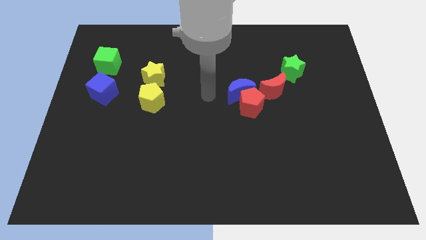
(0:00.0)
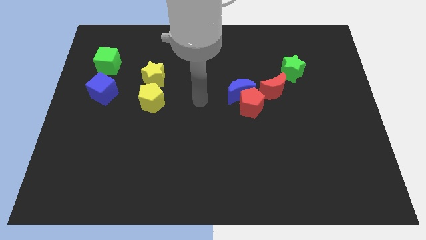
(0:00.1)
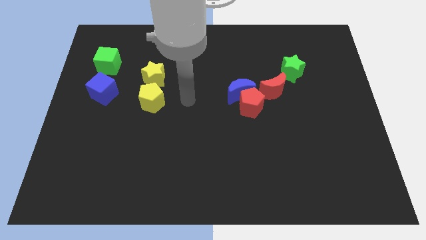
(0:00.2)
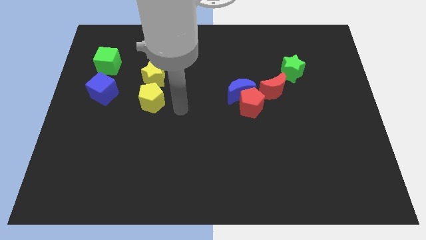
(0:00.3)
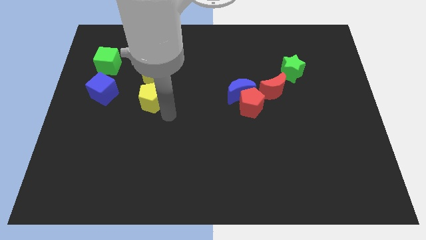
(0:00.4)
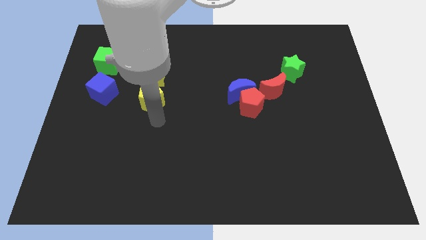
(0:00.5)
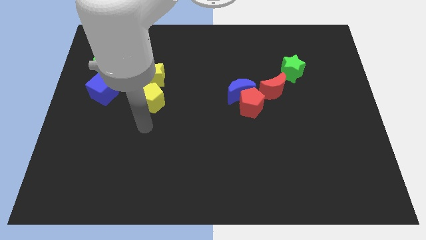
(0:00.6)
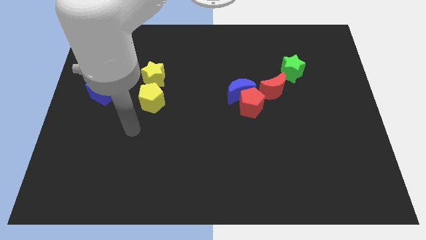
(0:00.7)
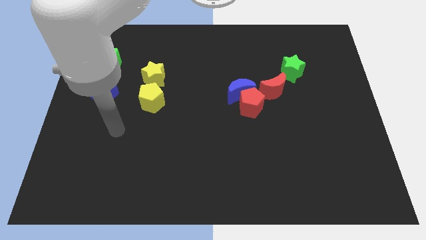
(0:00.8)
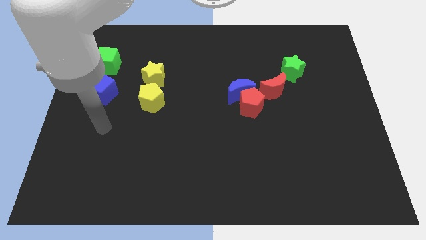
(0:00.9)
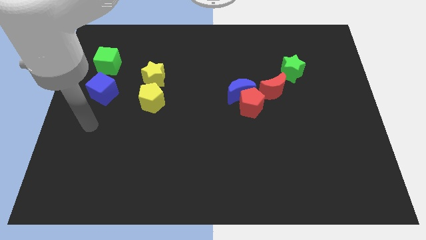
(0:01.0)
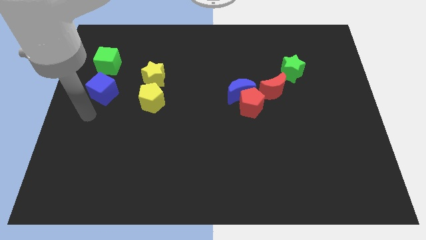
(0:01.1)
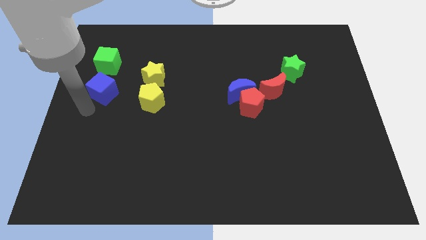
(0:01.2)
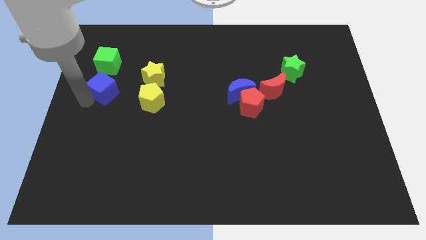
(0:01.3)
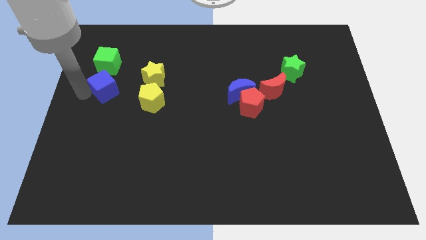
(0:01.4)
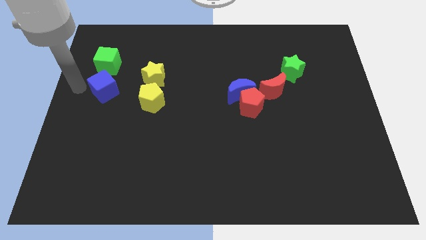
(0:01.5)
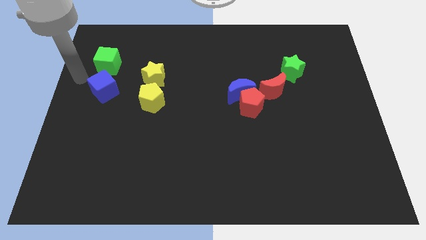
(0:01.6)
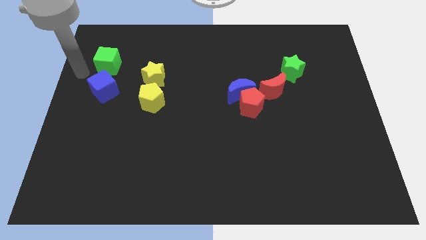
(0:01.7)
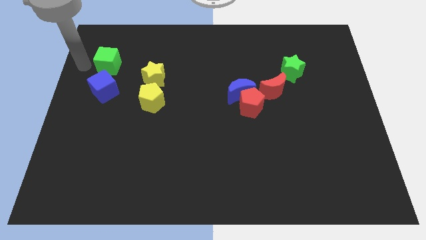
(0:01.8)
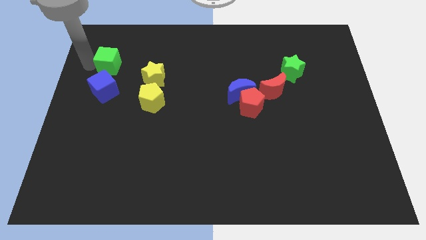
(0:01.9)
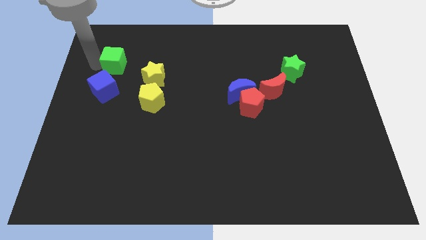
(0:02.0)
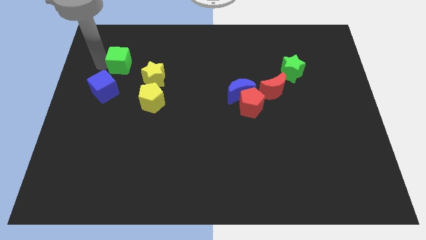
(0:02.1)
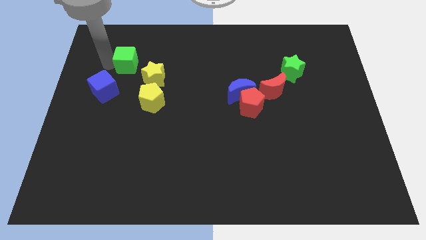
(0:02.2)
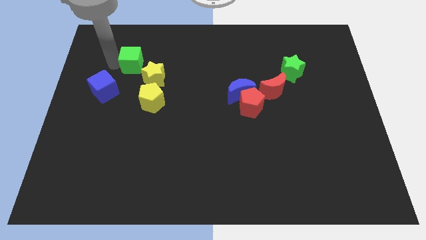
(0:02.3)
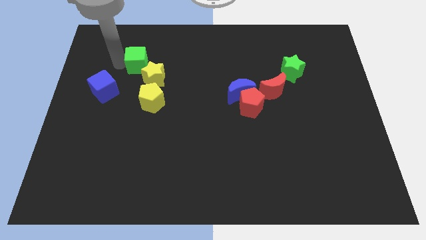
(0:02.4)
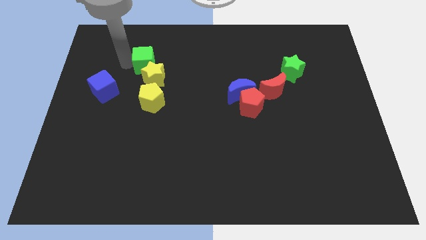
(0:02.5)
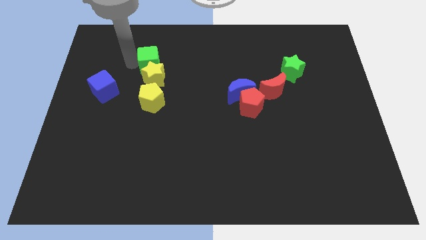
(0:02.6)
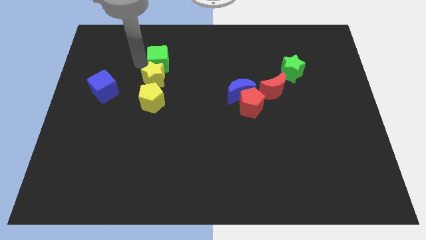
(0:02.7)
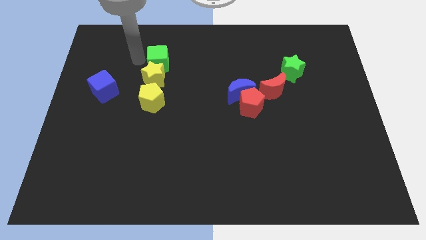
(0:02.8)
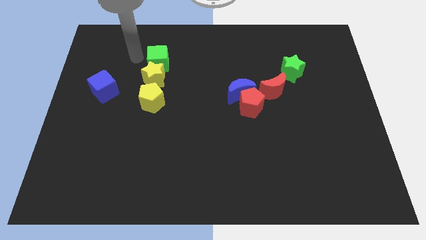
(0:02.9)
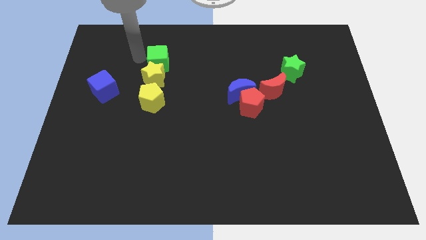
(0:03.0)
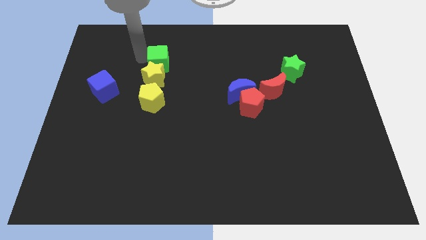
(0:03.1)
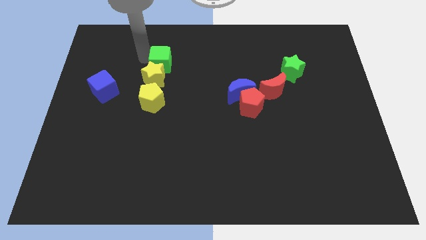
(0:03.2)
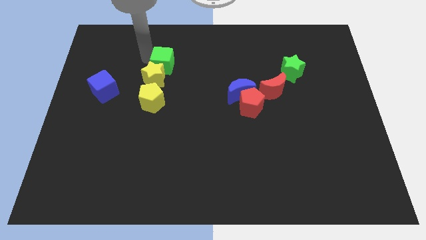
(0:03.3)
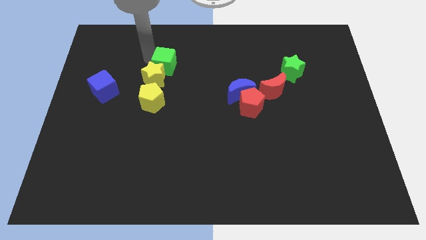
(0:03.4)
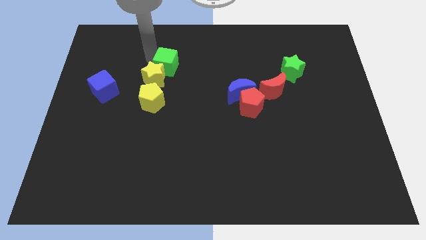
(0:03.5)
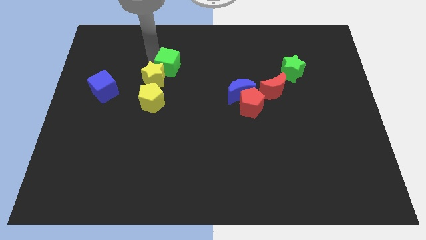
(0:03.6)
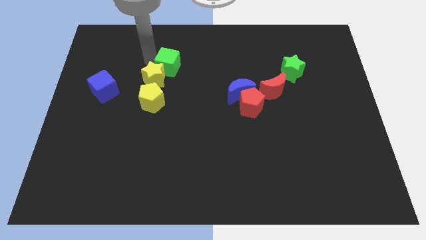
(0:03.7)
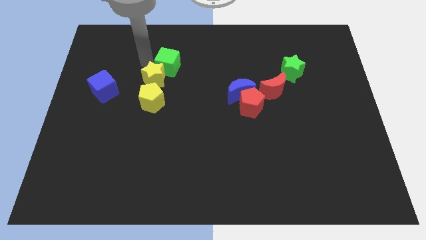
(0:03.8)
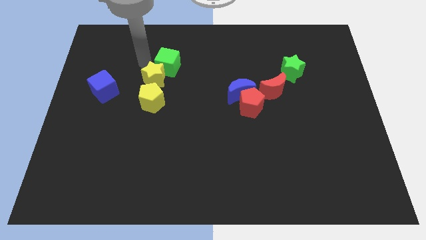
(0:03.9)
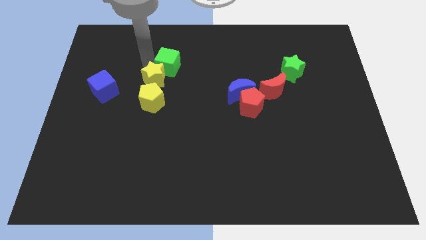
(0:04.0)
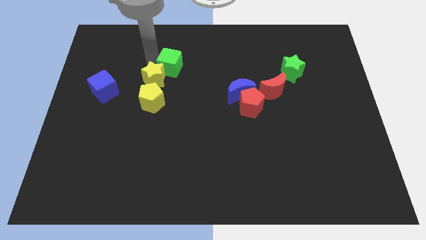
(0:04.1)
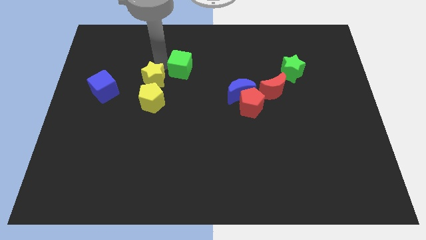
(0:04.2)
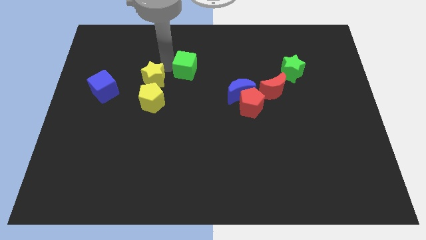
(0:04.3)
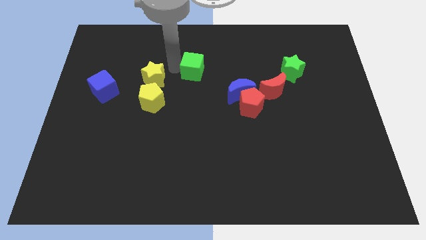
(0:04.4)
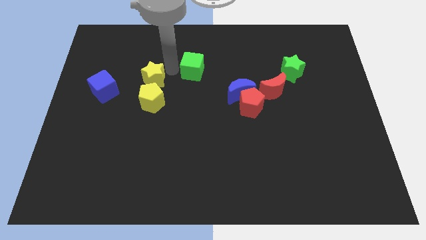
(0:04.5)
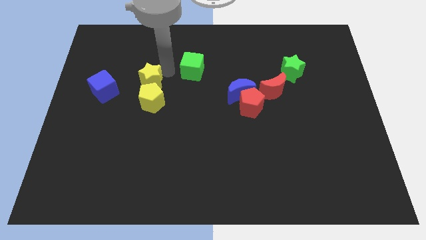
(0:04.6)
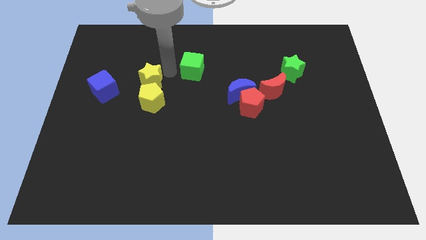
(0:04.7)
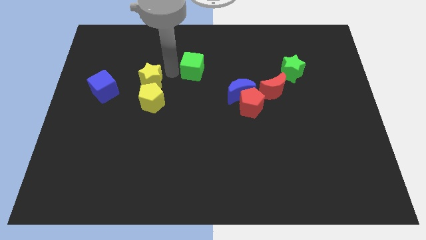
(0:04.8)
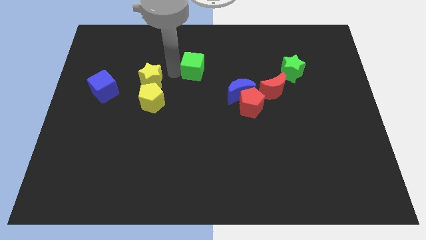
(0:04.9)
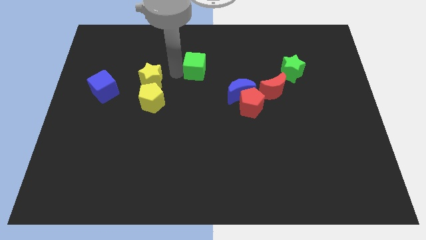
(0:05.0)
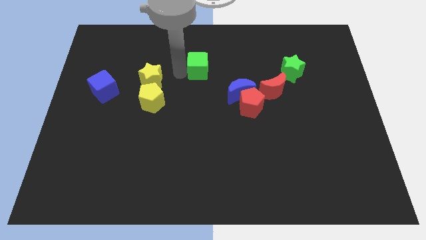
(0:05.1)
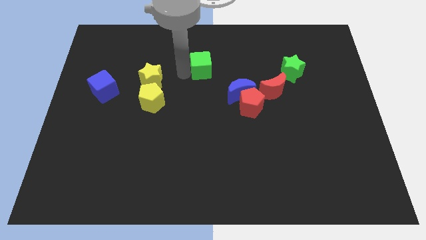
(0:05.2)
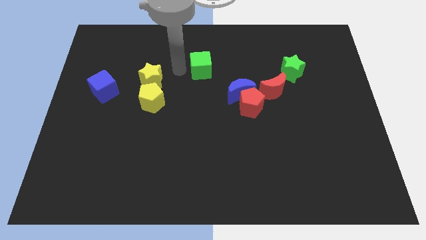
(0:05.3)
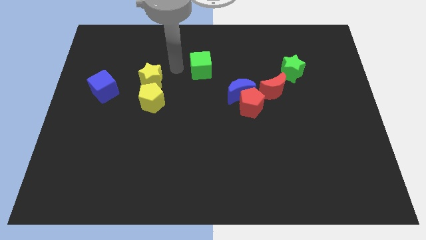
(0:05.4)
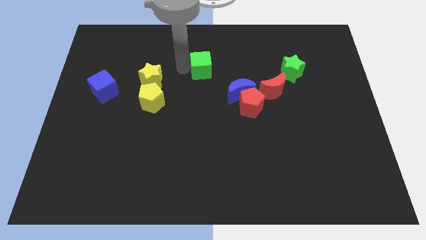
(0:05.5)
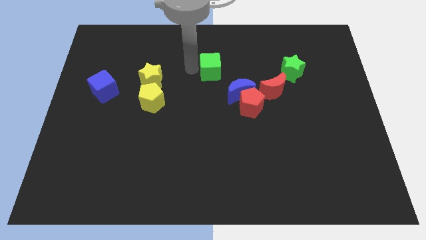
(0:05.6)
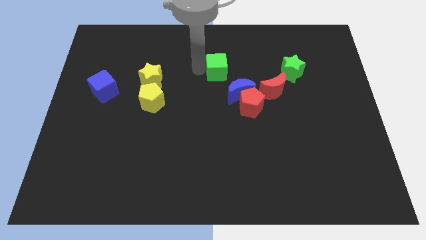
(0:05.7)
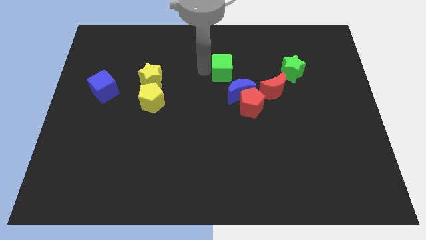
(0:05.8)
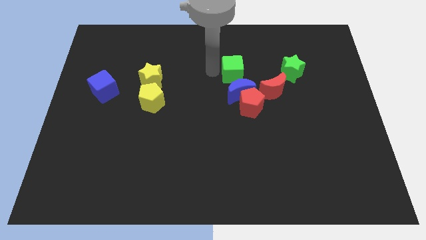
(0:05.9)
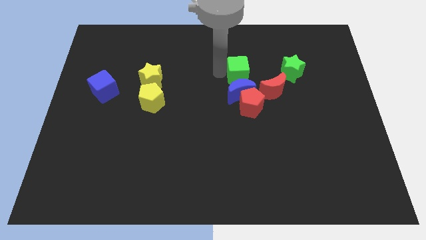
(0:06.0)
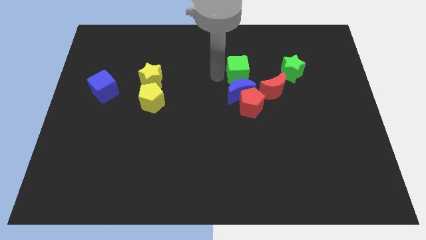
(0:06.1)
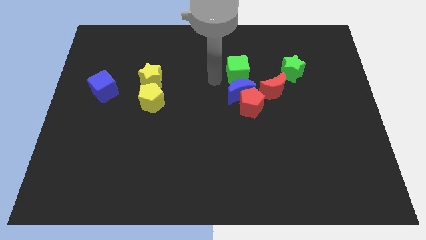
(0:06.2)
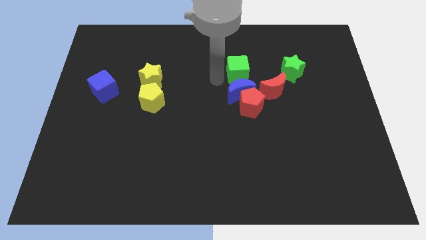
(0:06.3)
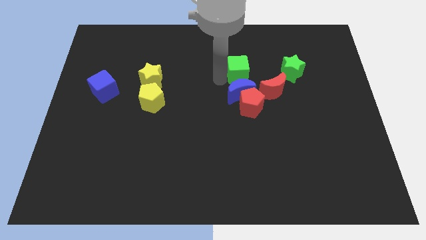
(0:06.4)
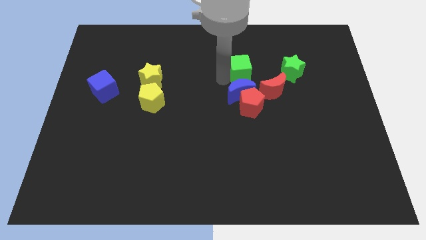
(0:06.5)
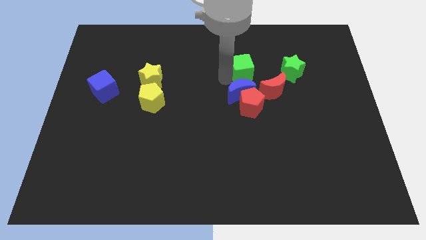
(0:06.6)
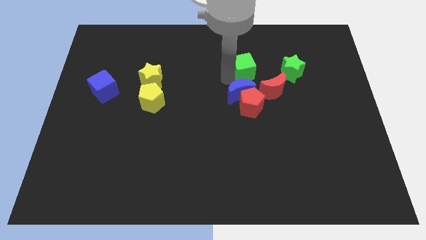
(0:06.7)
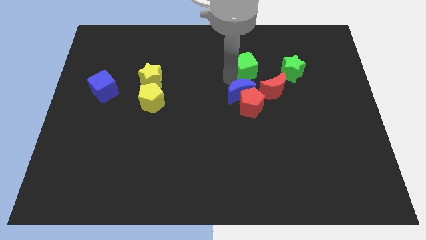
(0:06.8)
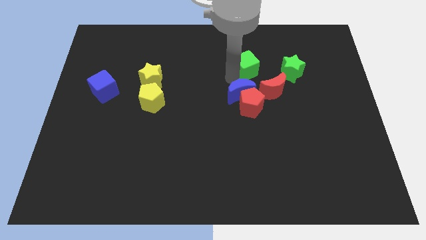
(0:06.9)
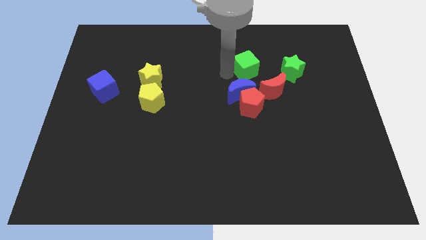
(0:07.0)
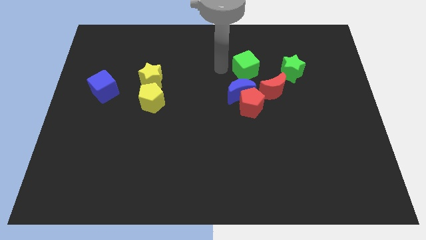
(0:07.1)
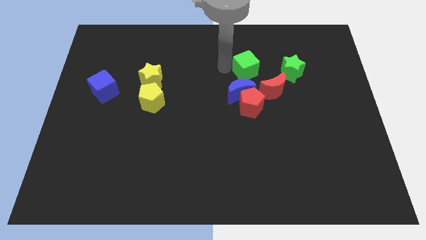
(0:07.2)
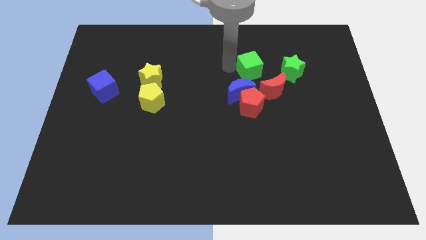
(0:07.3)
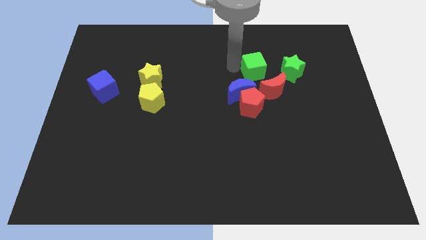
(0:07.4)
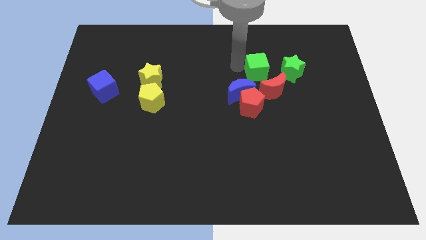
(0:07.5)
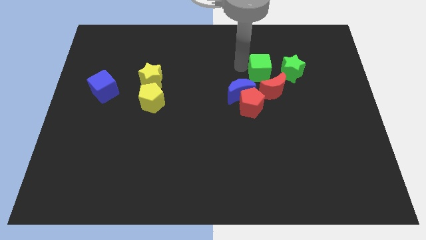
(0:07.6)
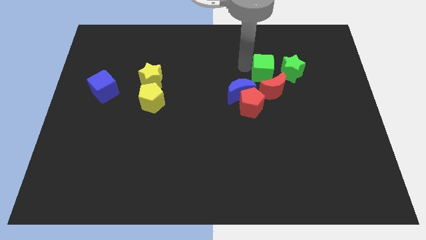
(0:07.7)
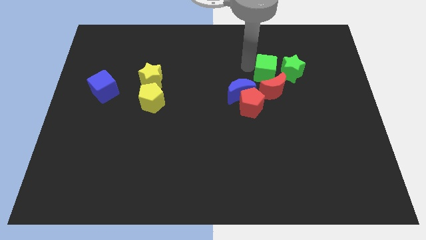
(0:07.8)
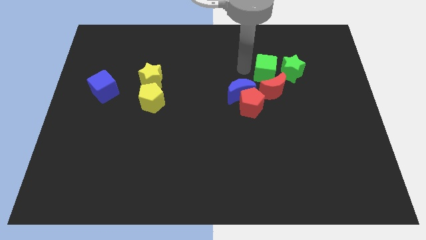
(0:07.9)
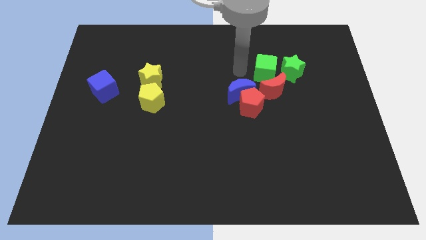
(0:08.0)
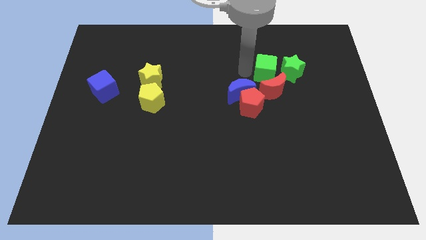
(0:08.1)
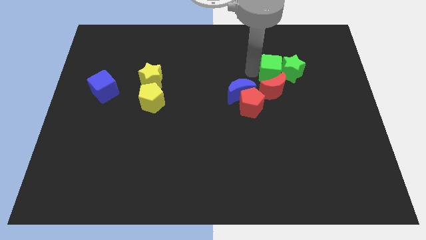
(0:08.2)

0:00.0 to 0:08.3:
move the green cube towards the green star
